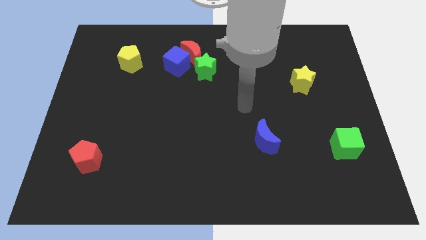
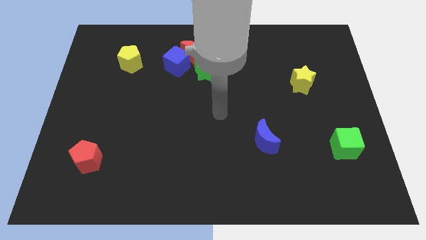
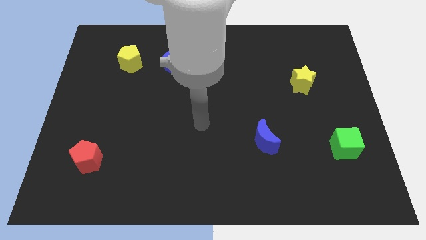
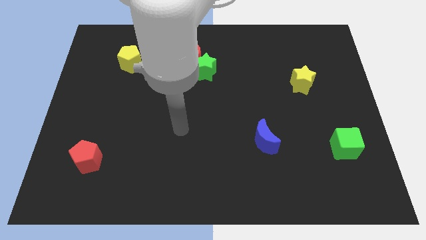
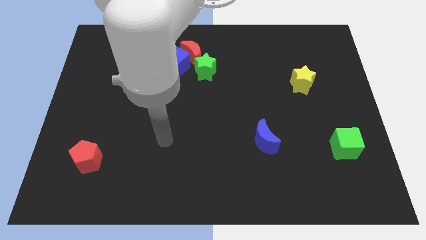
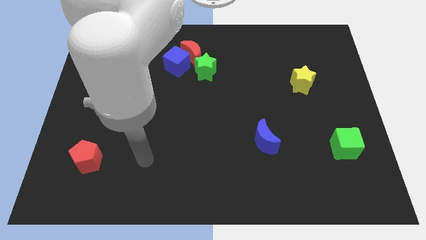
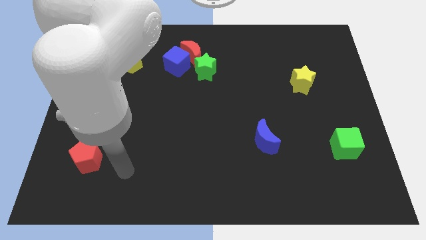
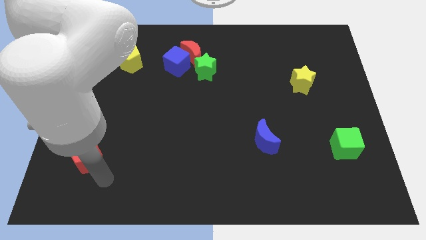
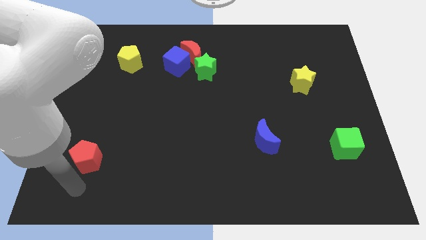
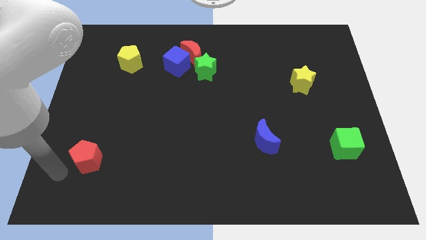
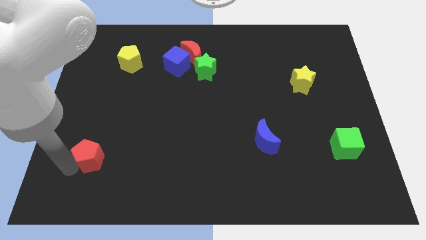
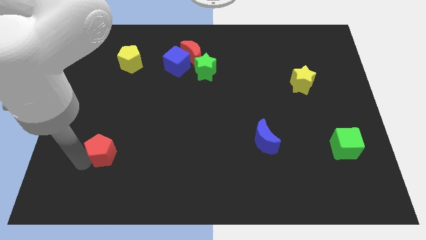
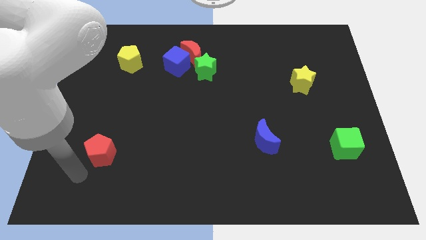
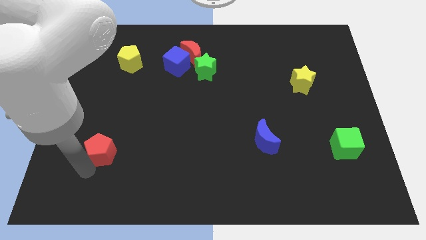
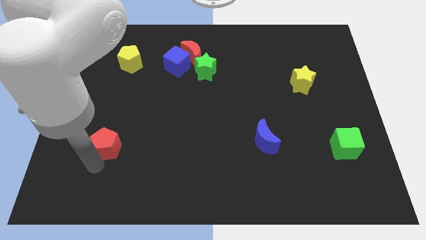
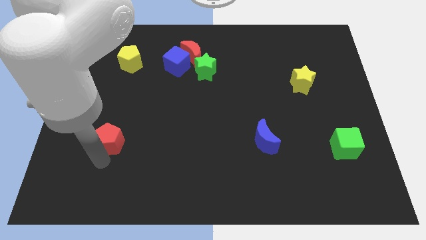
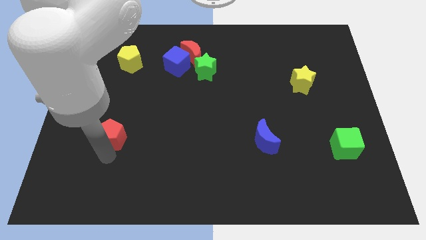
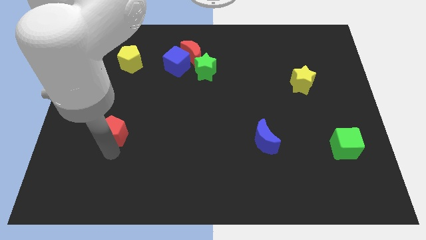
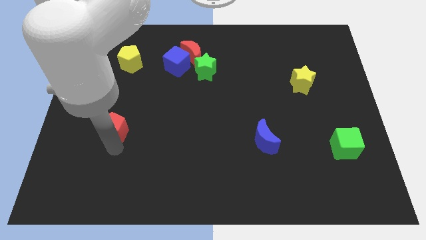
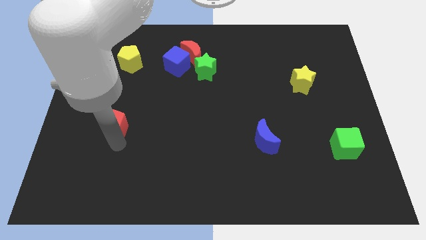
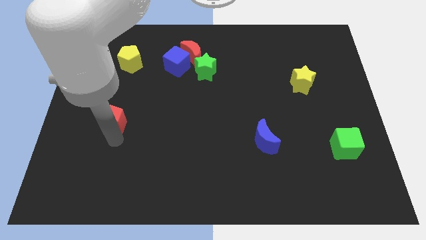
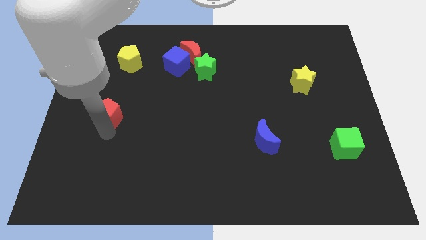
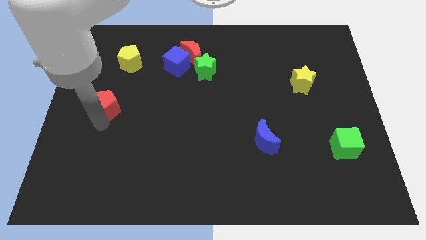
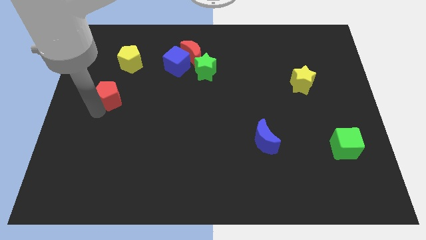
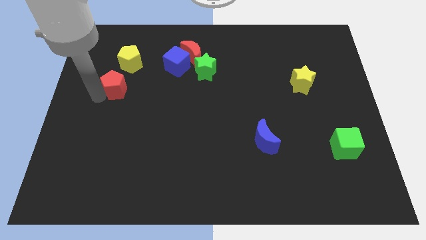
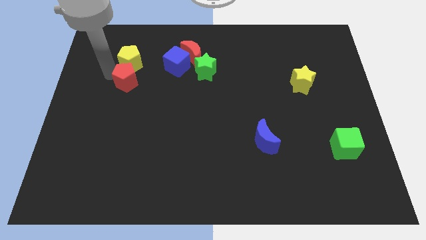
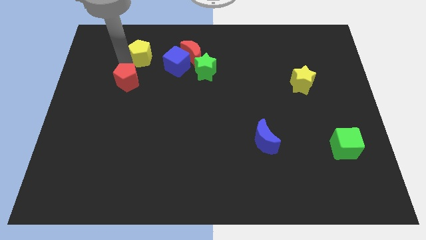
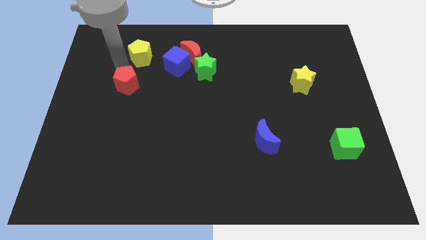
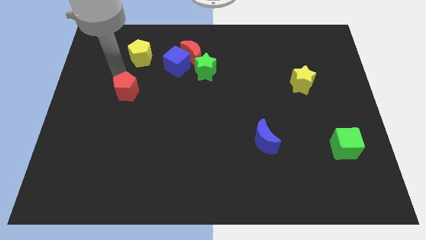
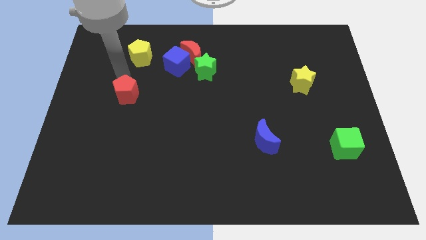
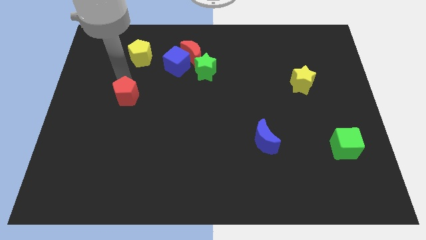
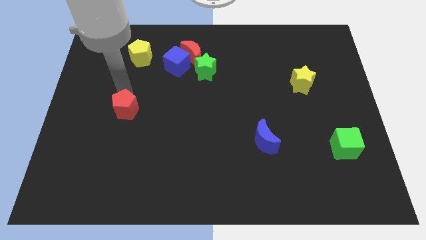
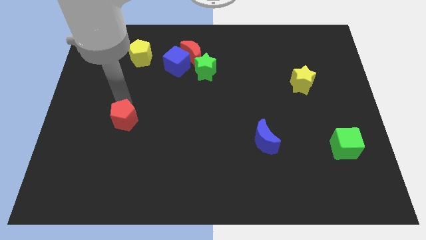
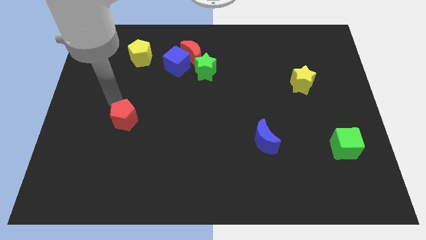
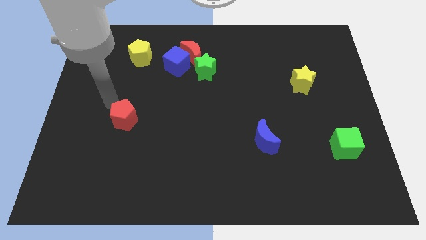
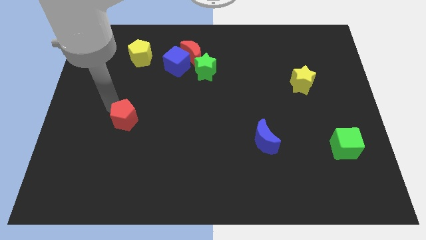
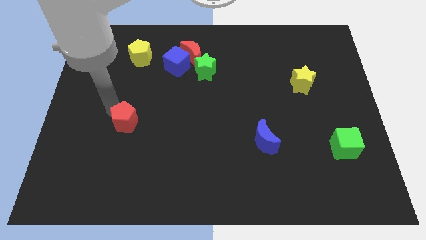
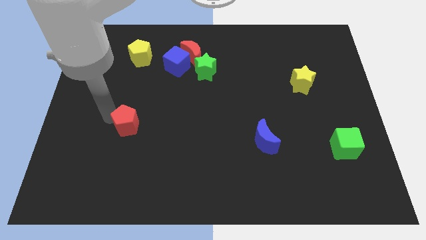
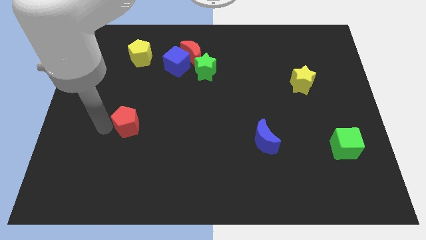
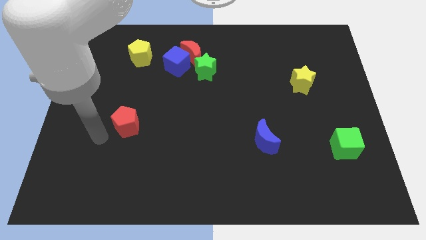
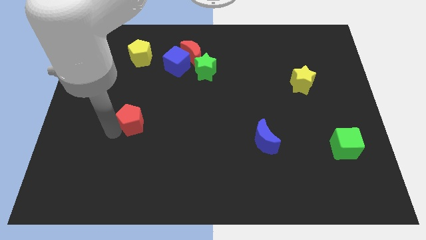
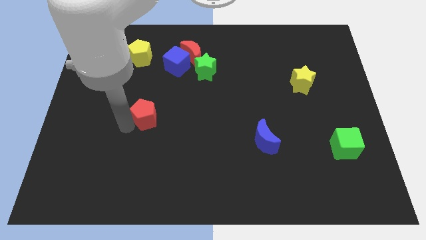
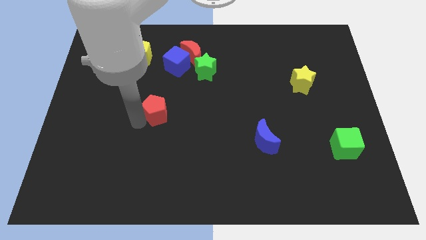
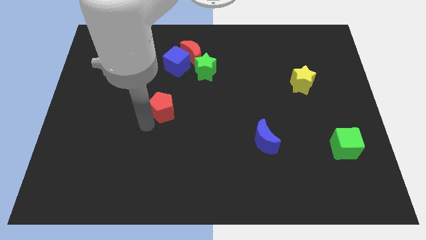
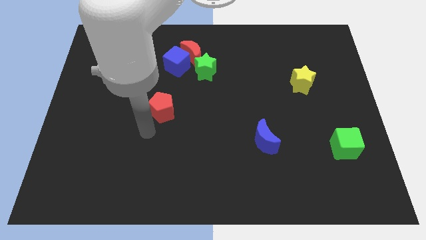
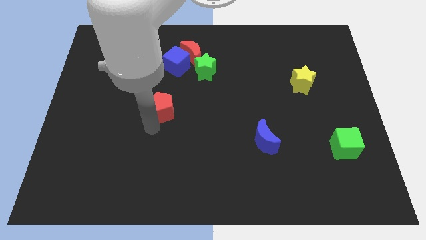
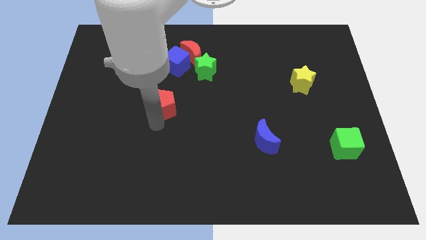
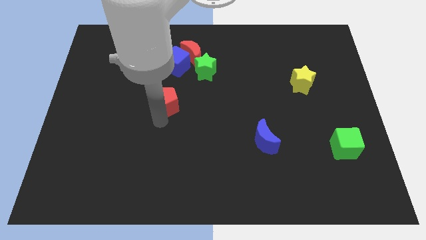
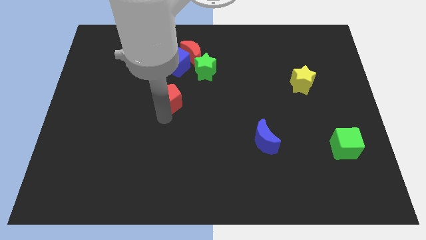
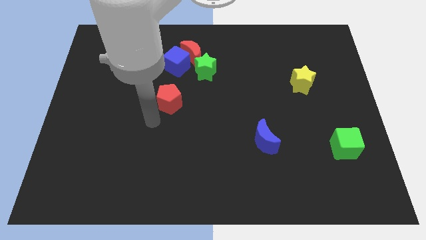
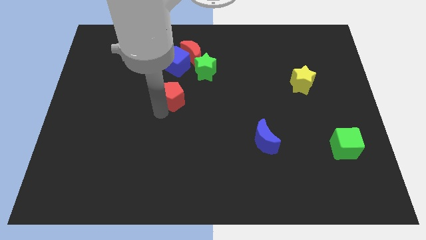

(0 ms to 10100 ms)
put the red pentagon diagonally down and to the left of the green star

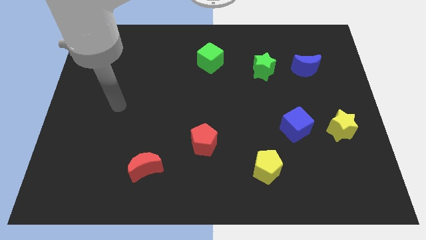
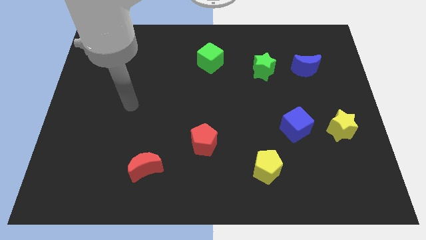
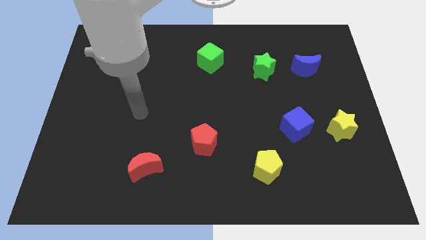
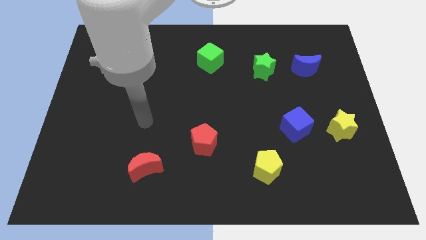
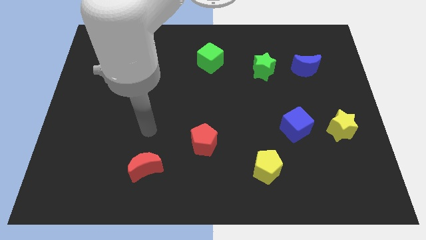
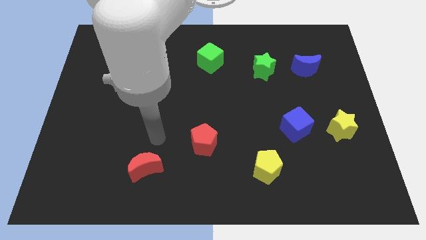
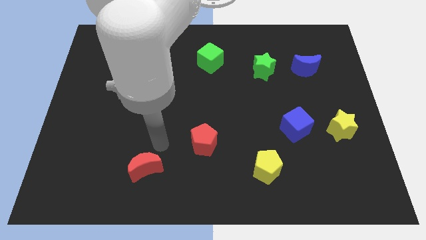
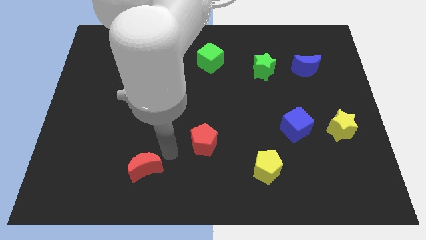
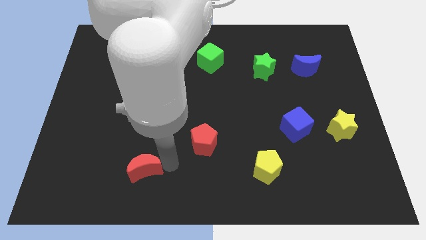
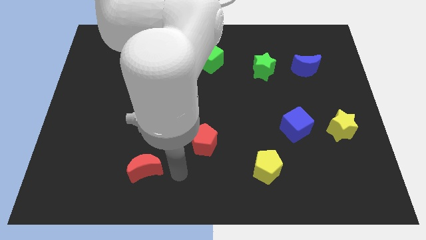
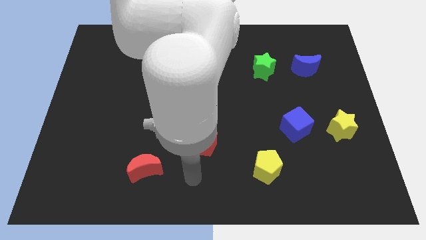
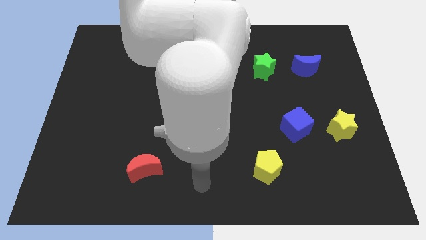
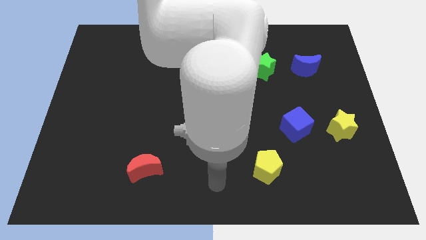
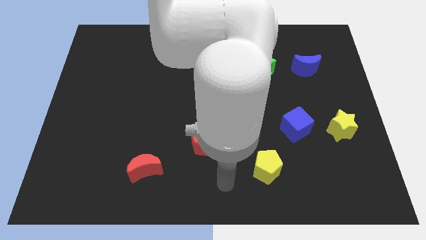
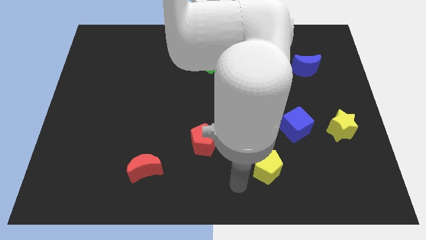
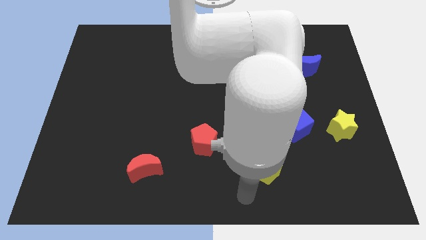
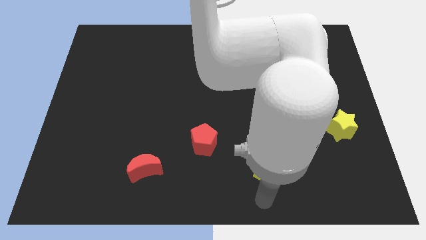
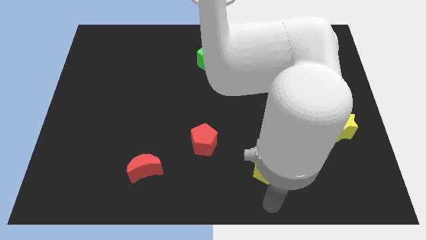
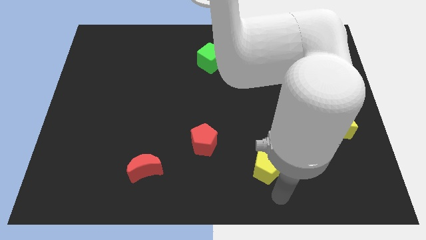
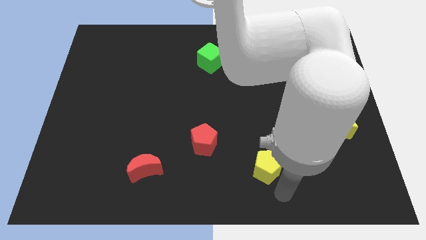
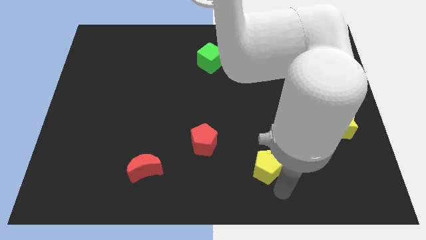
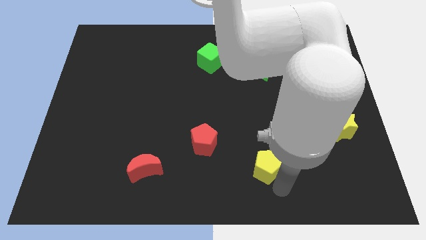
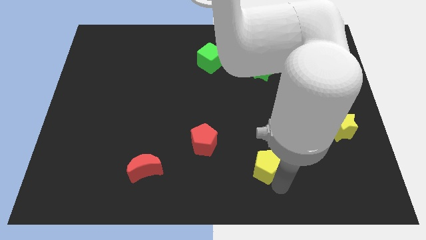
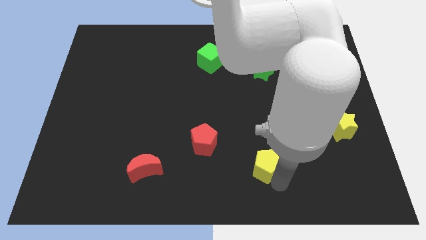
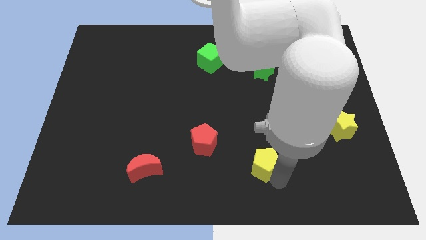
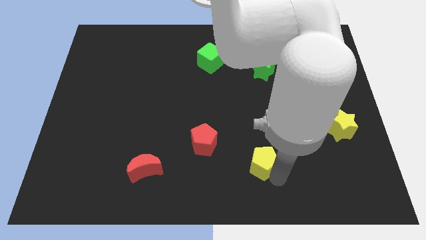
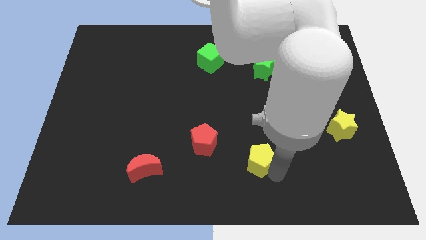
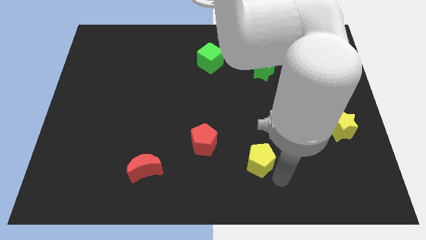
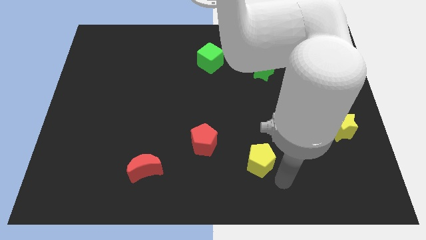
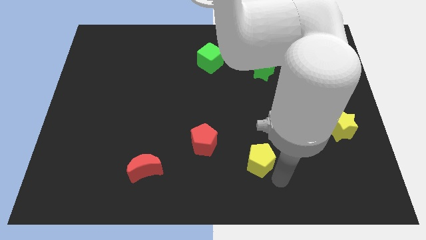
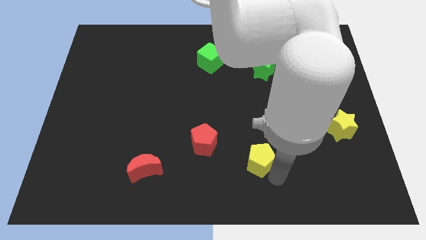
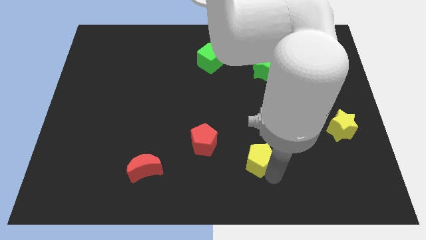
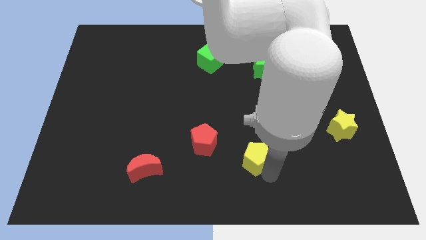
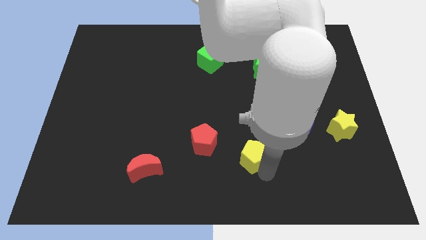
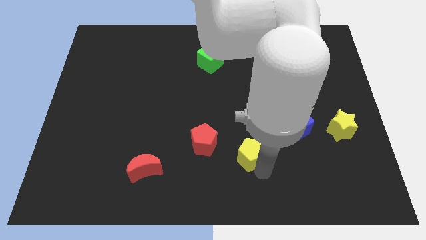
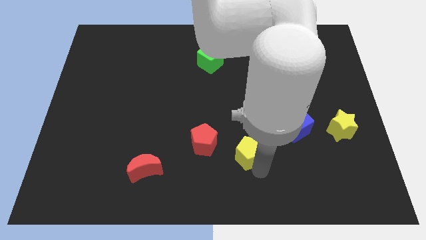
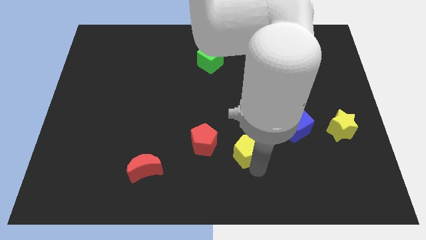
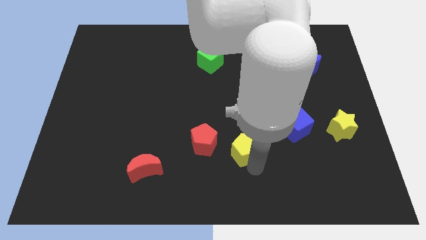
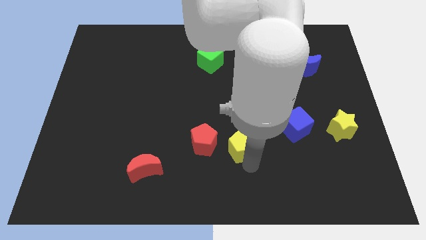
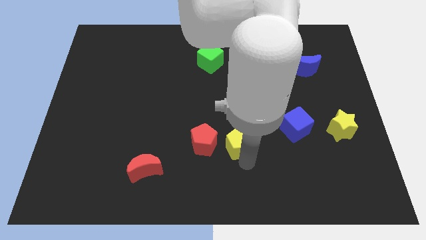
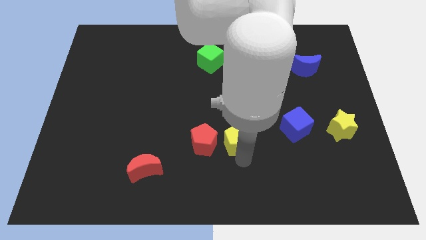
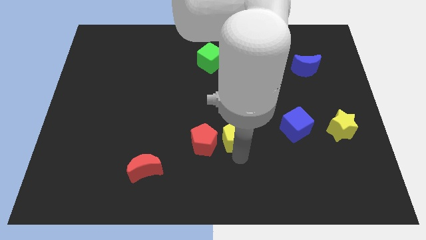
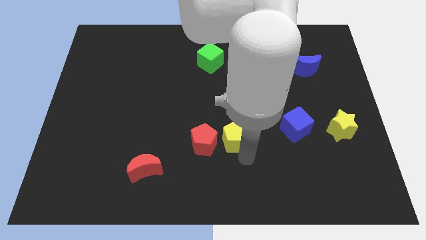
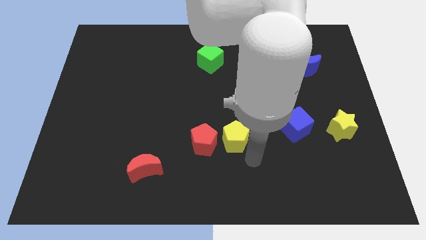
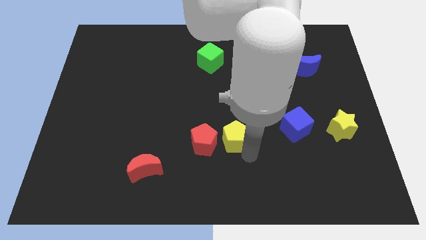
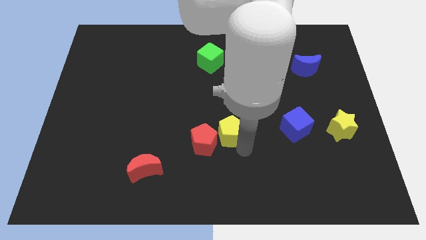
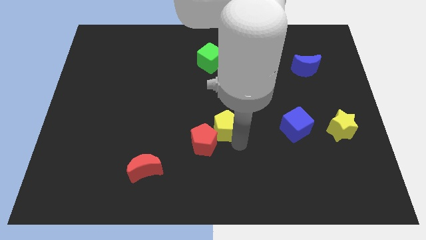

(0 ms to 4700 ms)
slide the yellow pentagon to the top of the red pentagon
